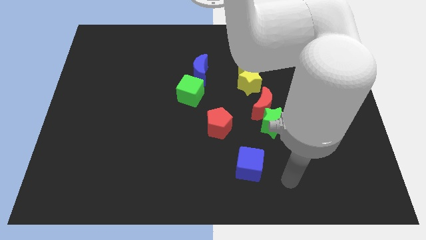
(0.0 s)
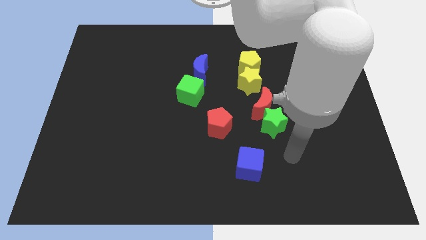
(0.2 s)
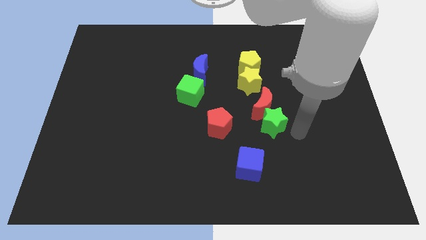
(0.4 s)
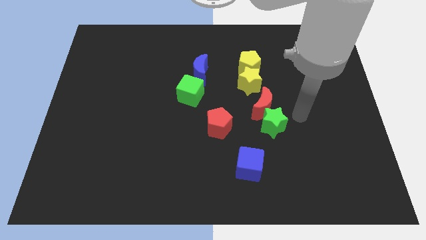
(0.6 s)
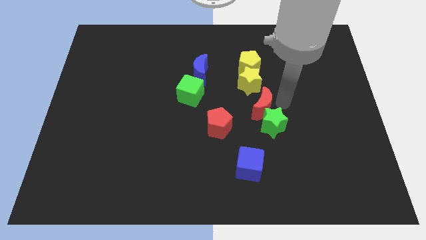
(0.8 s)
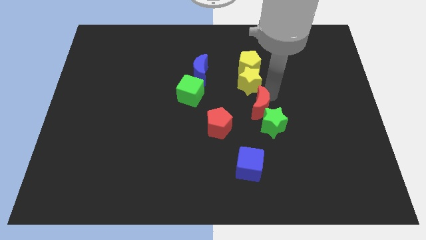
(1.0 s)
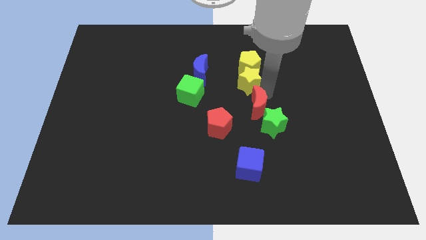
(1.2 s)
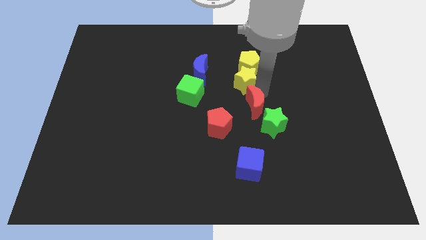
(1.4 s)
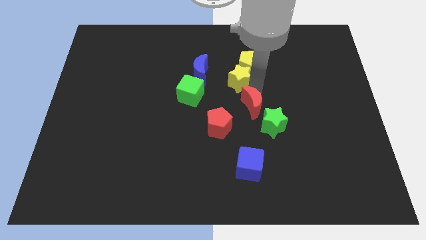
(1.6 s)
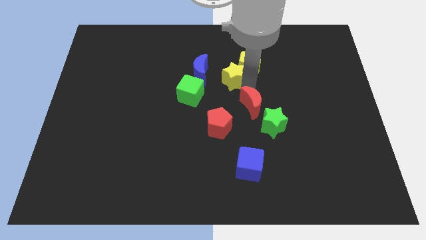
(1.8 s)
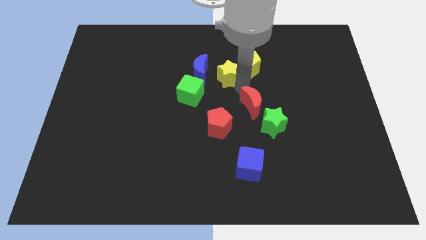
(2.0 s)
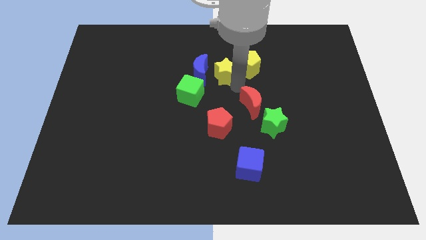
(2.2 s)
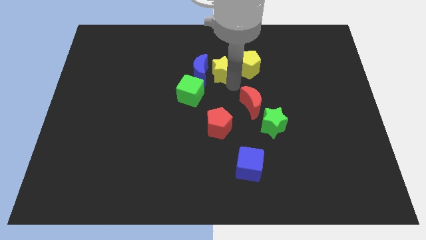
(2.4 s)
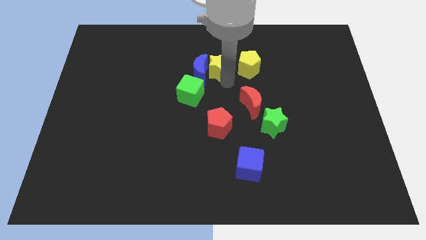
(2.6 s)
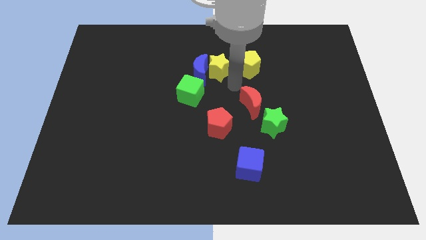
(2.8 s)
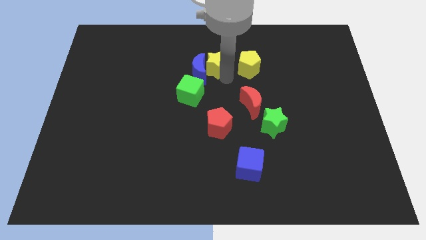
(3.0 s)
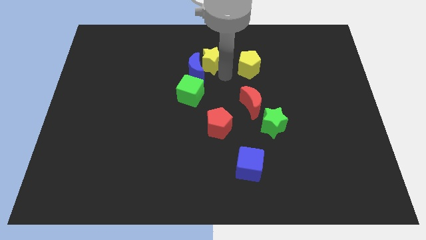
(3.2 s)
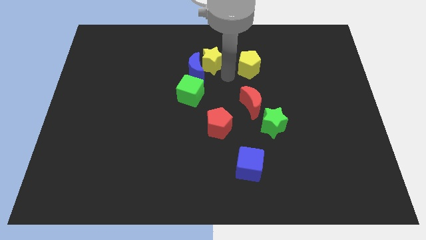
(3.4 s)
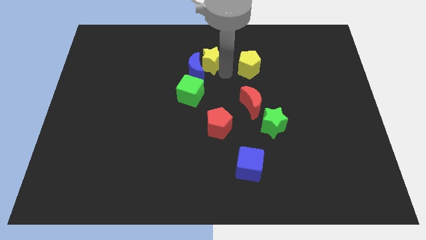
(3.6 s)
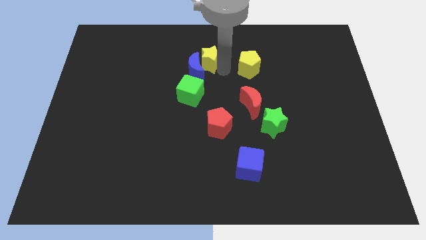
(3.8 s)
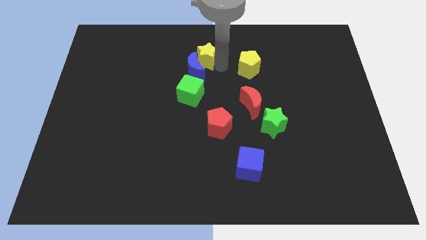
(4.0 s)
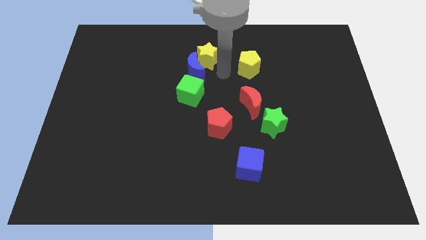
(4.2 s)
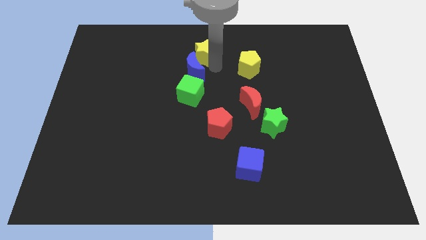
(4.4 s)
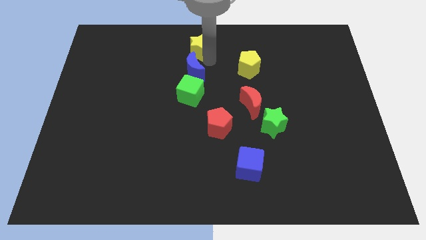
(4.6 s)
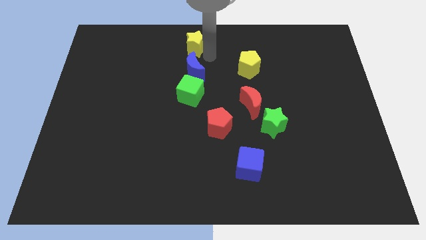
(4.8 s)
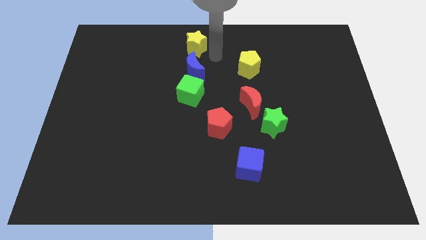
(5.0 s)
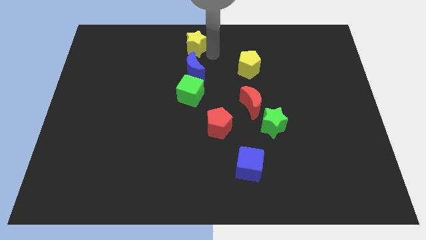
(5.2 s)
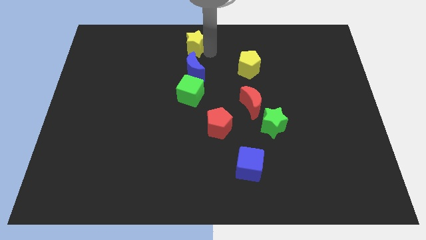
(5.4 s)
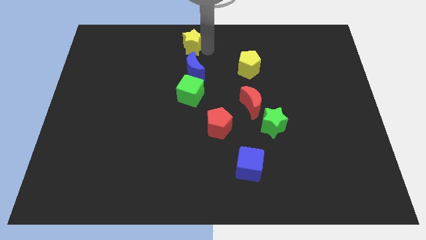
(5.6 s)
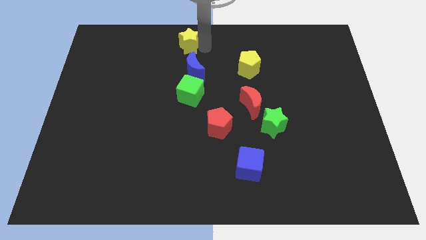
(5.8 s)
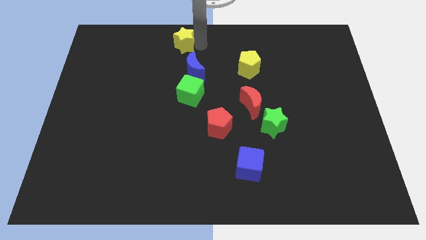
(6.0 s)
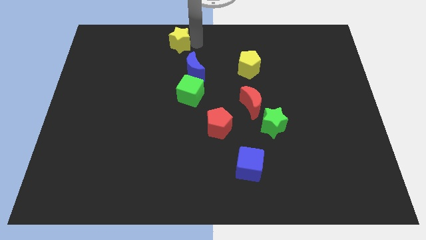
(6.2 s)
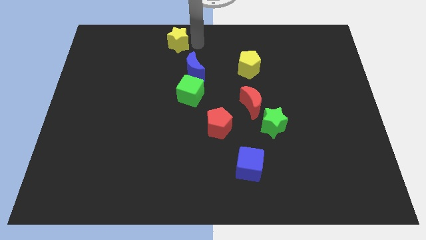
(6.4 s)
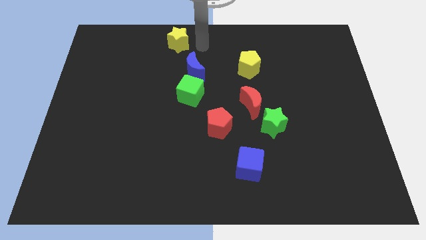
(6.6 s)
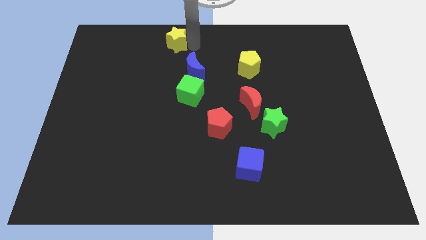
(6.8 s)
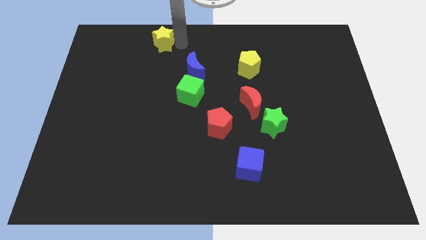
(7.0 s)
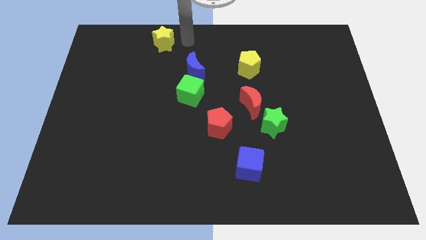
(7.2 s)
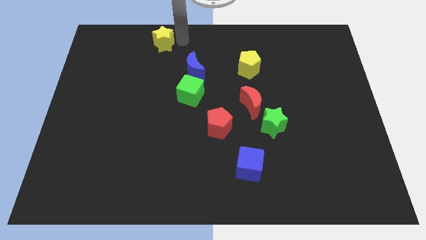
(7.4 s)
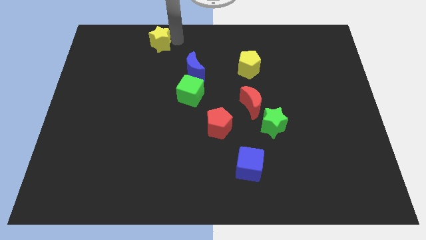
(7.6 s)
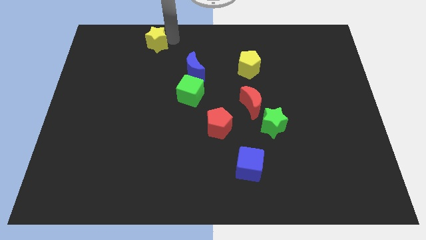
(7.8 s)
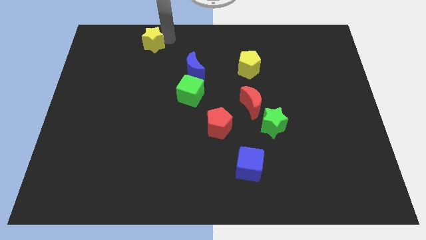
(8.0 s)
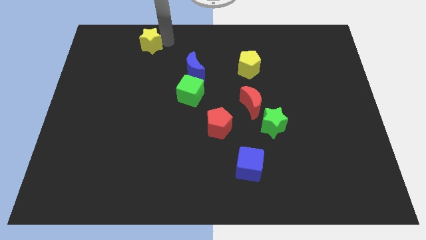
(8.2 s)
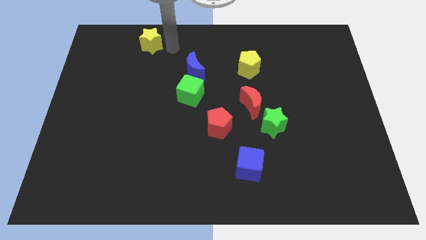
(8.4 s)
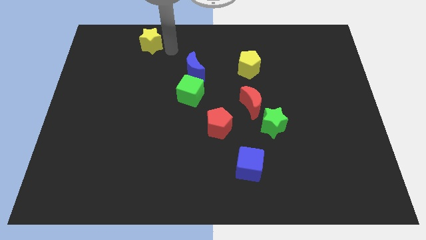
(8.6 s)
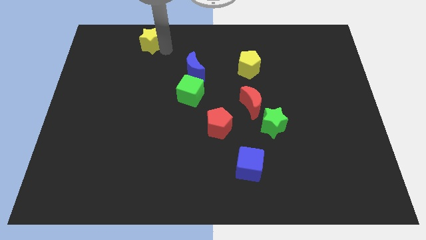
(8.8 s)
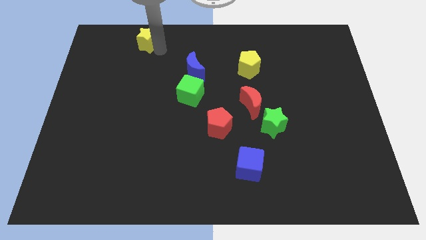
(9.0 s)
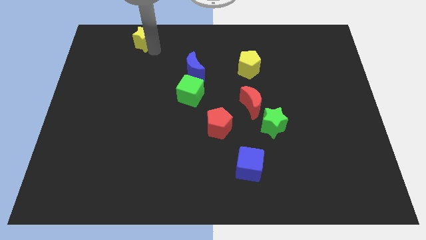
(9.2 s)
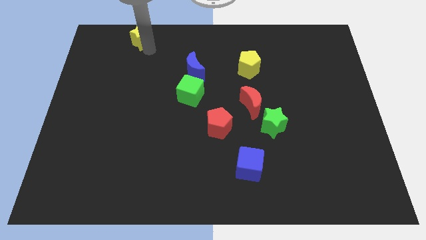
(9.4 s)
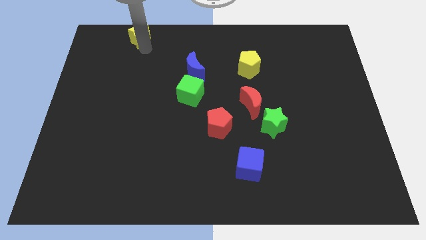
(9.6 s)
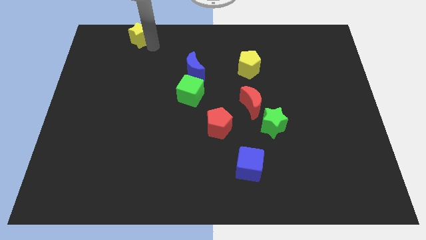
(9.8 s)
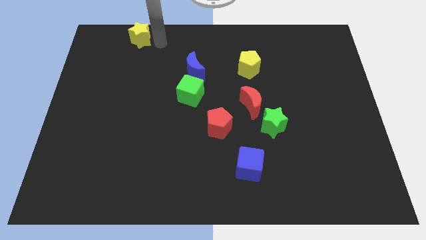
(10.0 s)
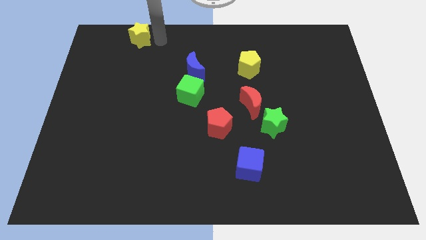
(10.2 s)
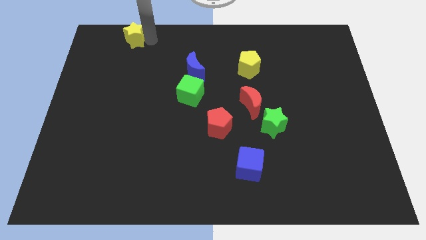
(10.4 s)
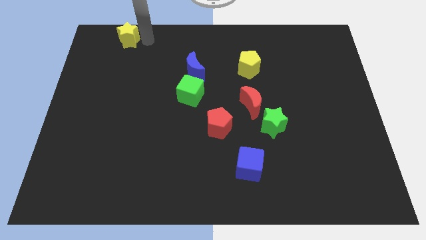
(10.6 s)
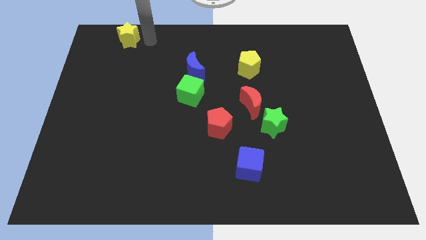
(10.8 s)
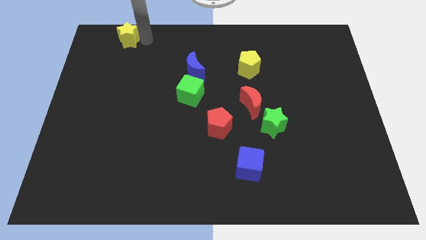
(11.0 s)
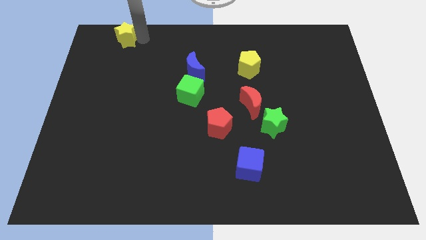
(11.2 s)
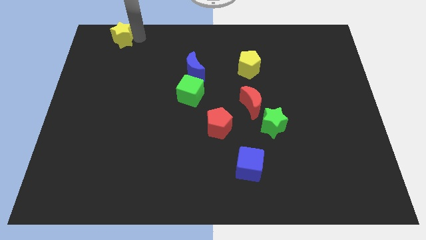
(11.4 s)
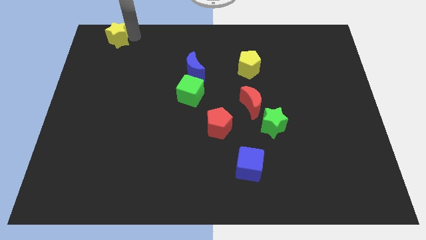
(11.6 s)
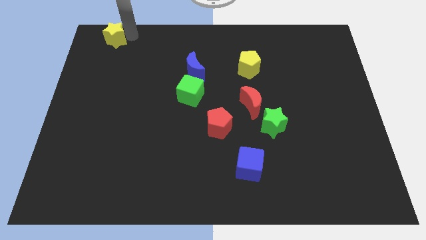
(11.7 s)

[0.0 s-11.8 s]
move the yellow star to the upper left corner
